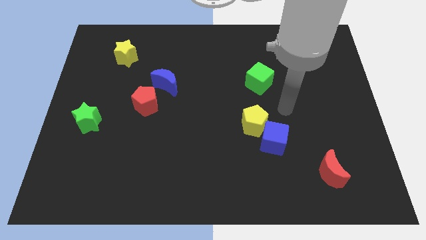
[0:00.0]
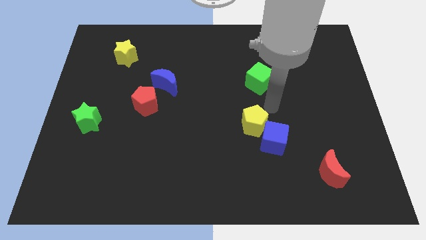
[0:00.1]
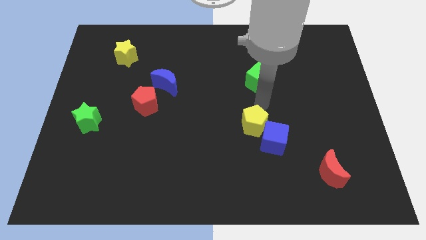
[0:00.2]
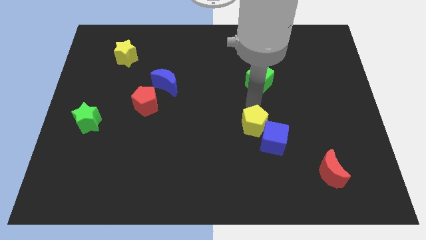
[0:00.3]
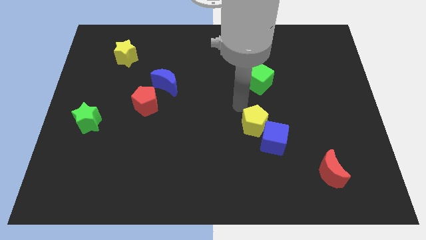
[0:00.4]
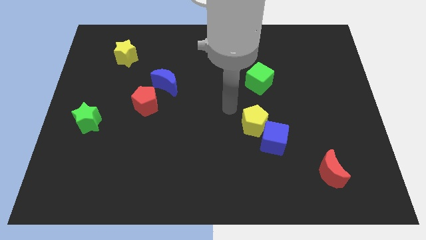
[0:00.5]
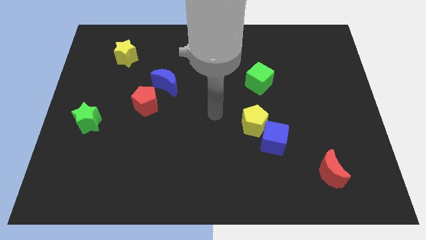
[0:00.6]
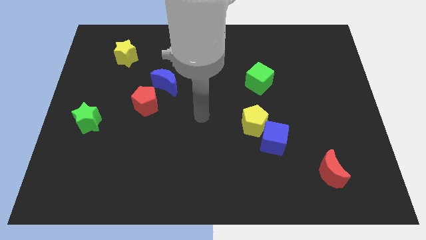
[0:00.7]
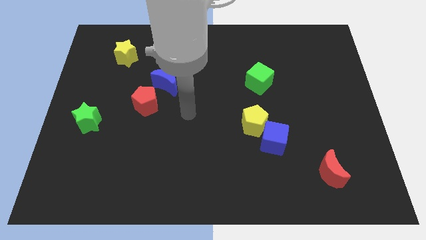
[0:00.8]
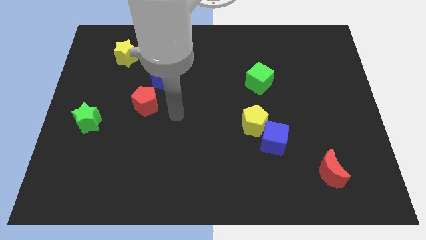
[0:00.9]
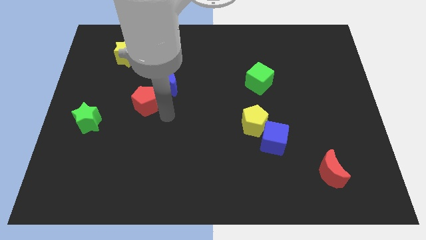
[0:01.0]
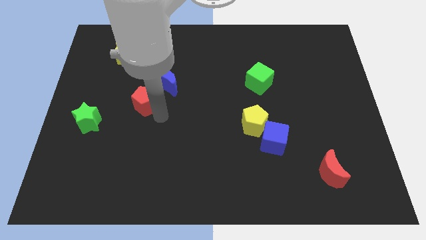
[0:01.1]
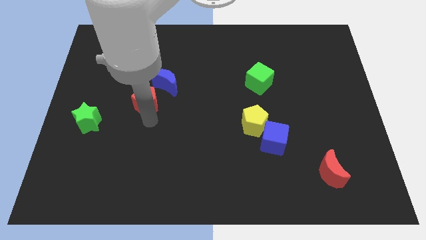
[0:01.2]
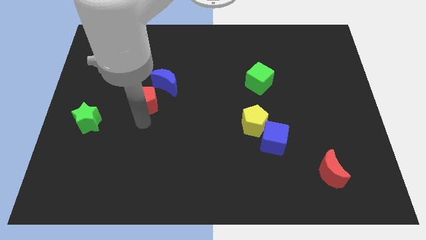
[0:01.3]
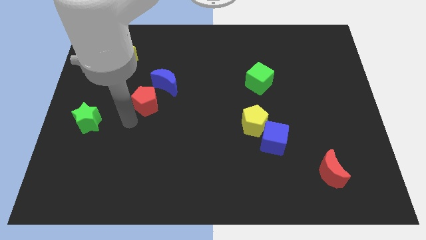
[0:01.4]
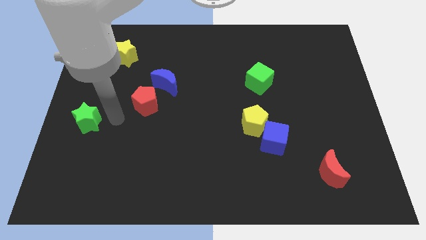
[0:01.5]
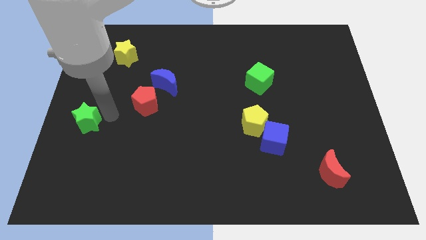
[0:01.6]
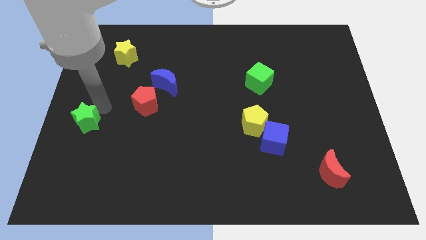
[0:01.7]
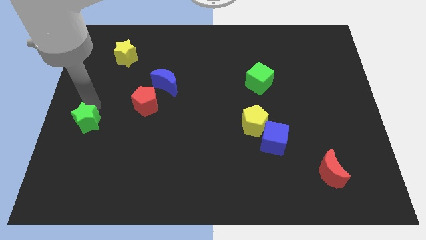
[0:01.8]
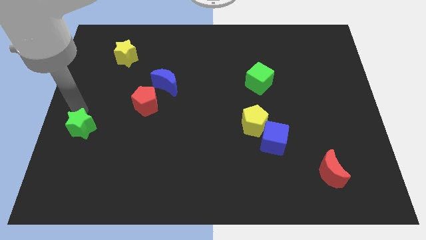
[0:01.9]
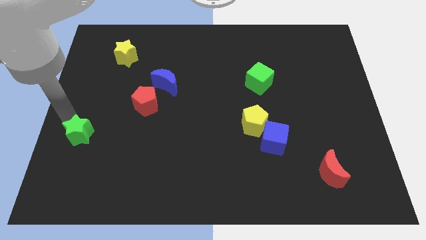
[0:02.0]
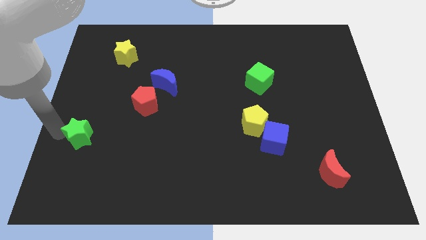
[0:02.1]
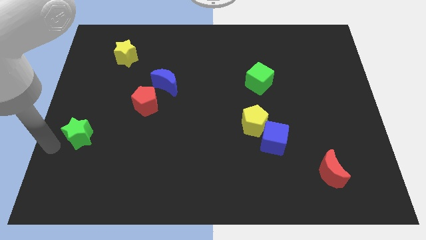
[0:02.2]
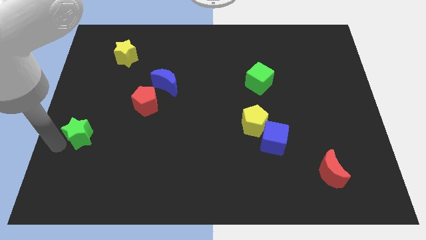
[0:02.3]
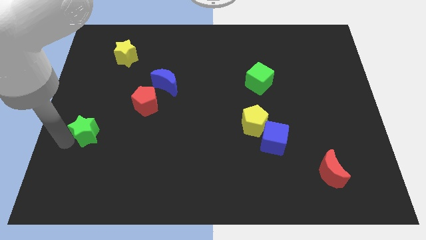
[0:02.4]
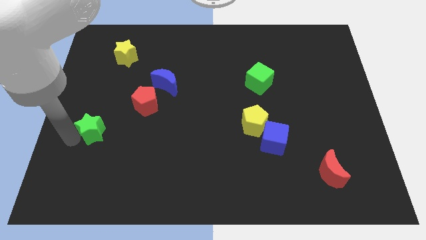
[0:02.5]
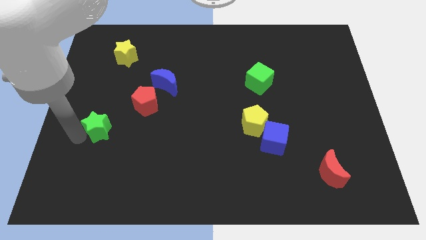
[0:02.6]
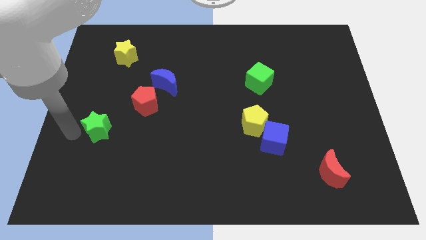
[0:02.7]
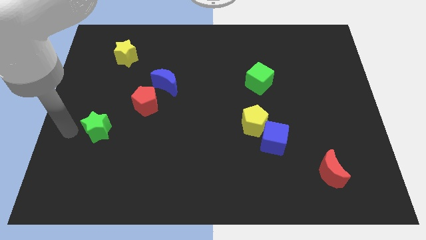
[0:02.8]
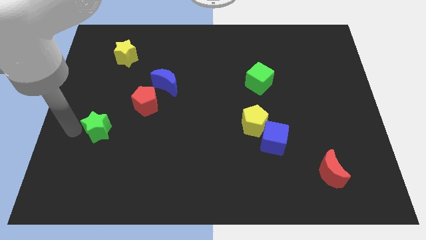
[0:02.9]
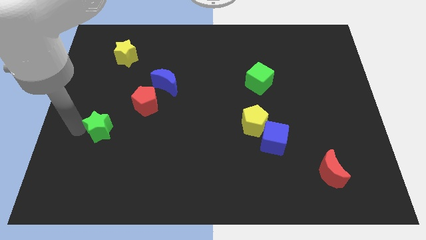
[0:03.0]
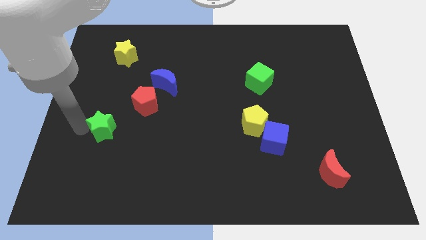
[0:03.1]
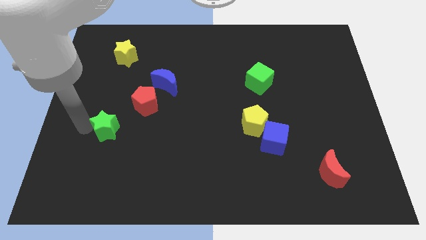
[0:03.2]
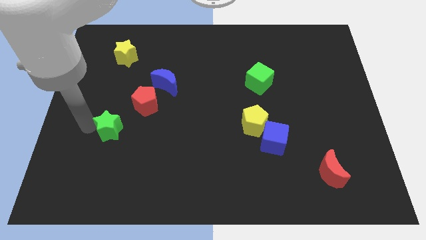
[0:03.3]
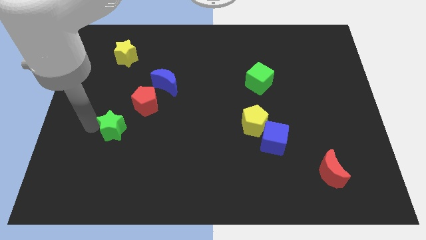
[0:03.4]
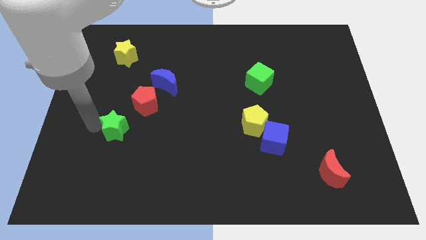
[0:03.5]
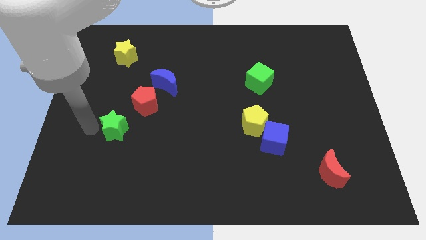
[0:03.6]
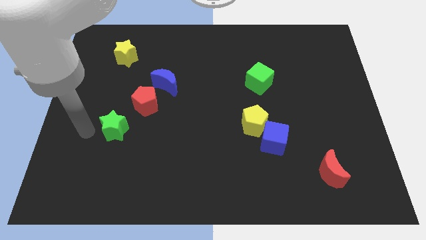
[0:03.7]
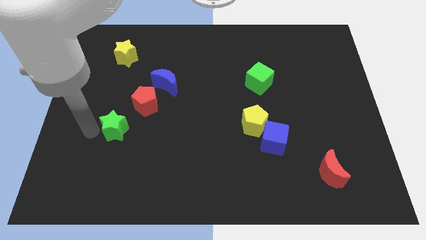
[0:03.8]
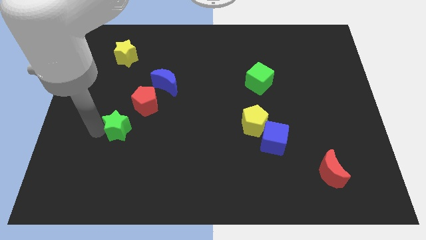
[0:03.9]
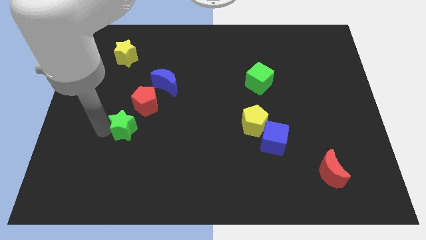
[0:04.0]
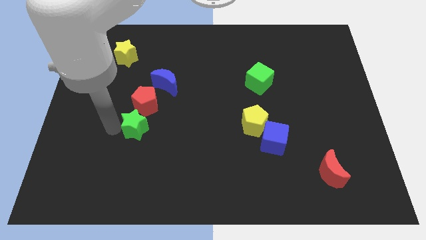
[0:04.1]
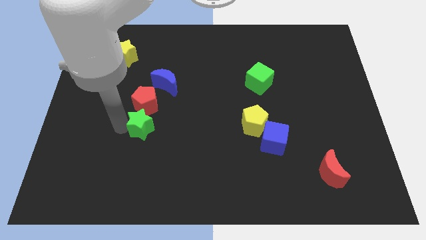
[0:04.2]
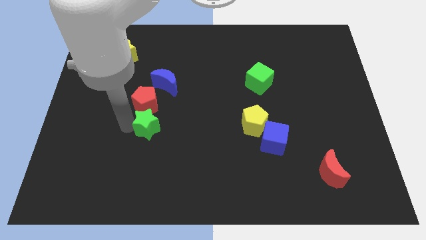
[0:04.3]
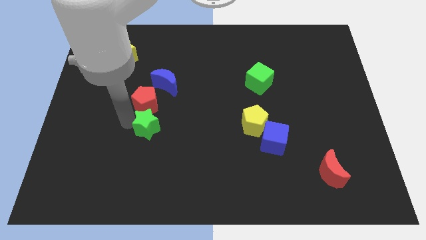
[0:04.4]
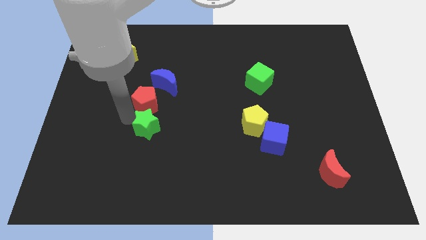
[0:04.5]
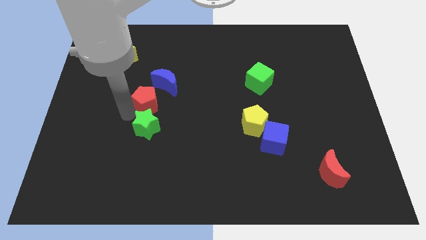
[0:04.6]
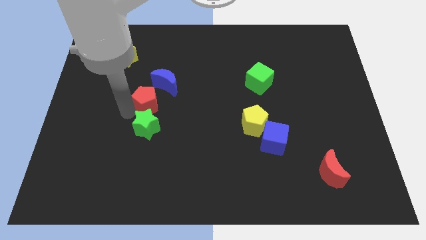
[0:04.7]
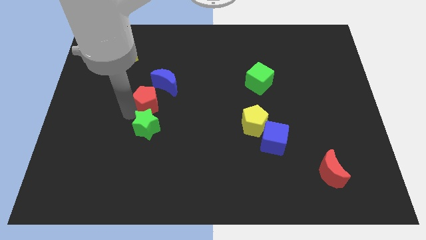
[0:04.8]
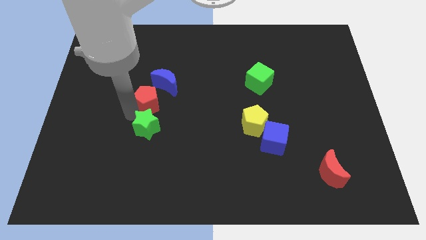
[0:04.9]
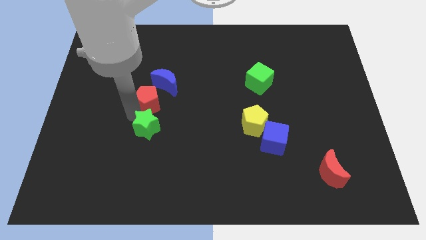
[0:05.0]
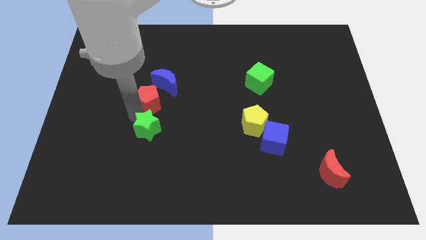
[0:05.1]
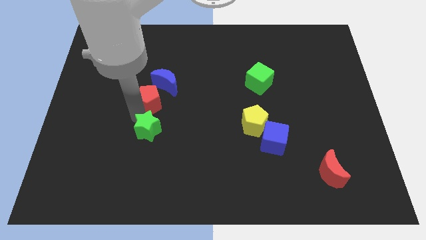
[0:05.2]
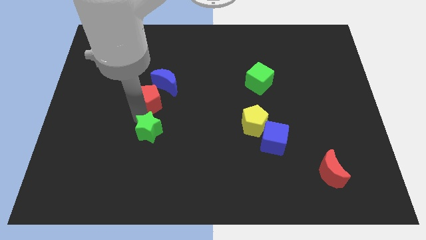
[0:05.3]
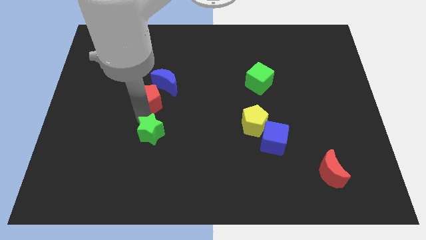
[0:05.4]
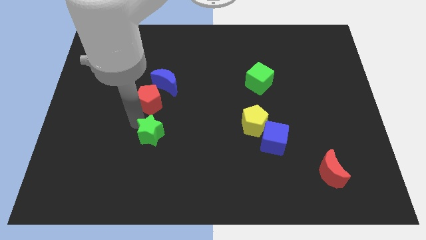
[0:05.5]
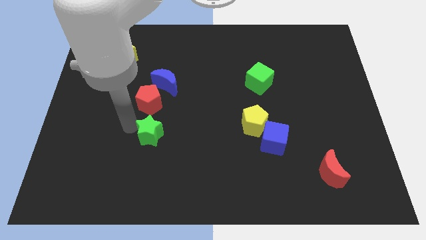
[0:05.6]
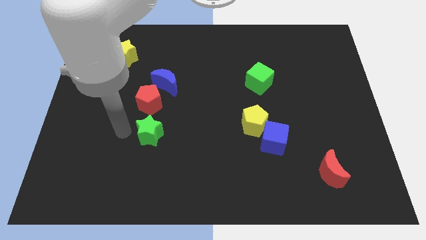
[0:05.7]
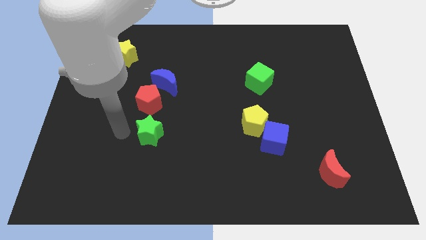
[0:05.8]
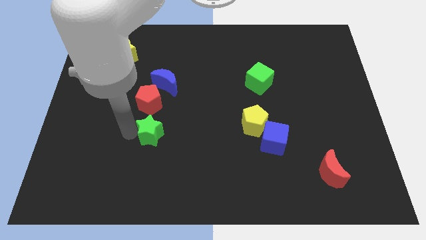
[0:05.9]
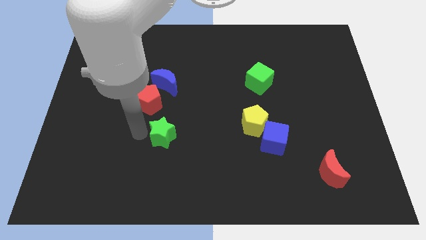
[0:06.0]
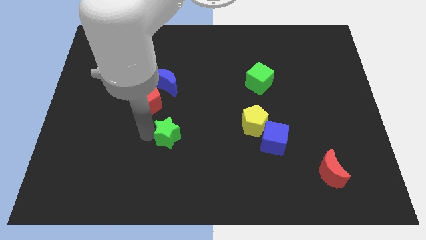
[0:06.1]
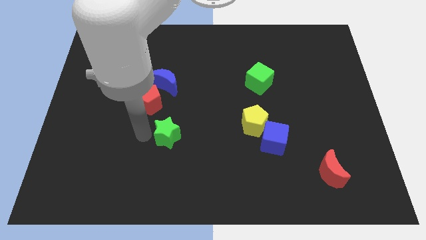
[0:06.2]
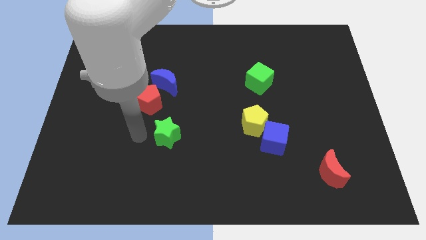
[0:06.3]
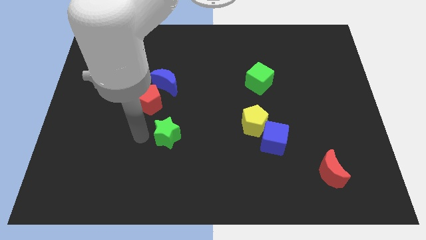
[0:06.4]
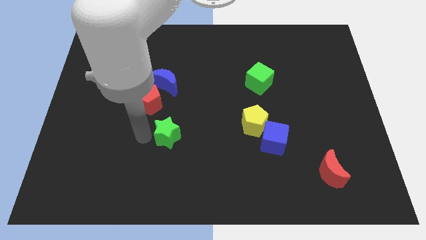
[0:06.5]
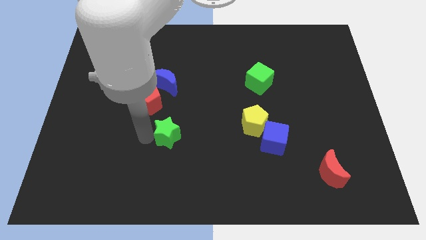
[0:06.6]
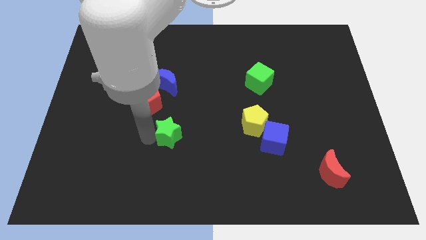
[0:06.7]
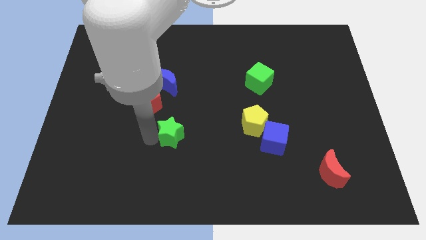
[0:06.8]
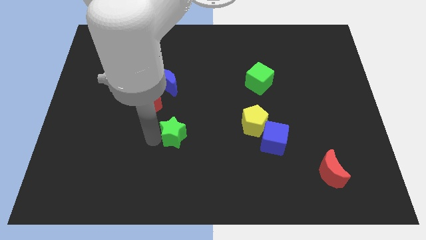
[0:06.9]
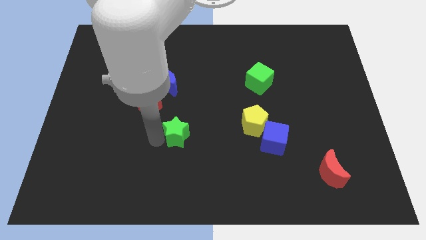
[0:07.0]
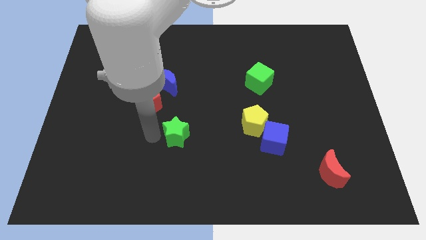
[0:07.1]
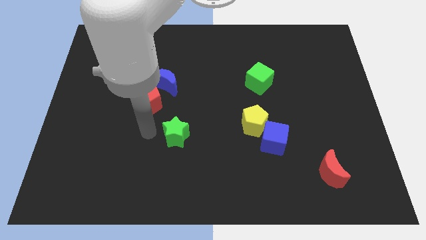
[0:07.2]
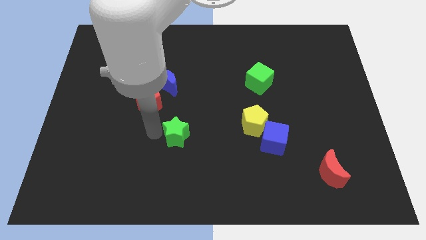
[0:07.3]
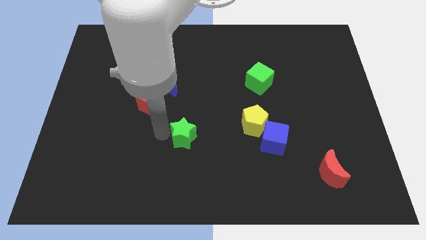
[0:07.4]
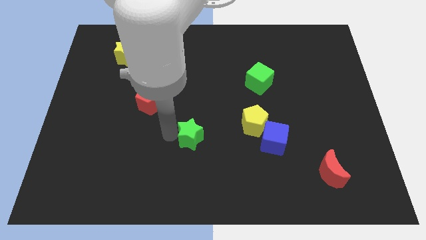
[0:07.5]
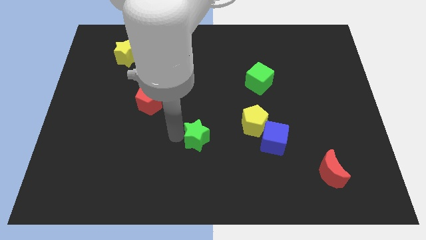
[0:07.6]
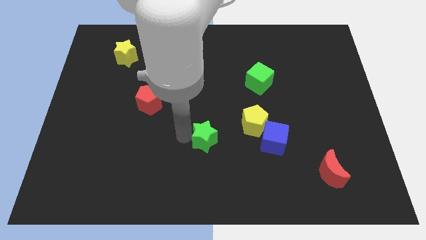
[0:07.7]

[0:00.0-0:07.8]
put the green star left of the blue cube
